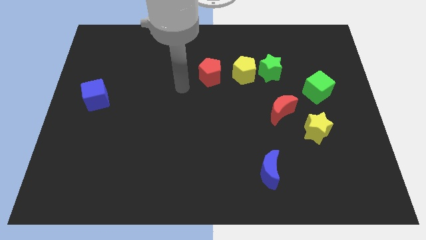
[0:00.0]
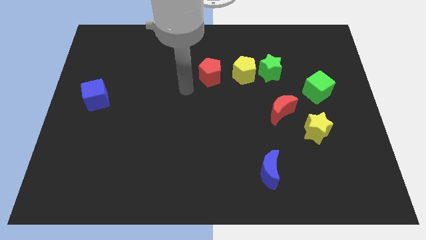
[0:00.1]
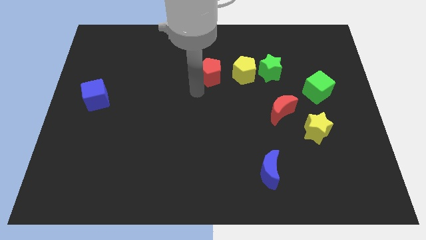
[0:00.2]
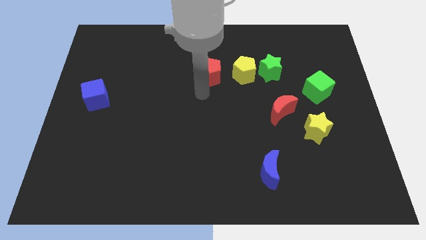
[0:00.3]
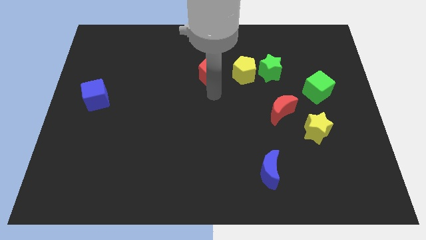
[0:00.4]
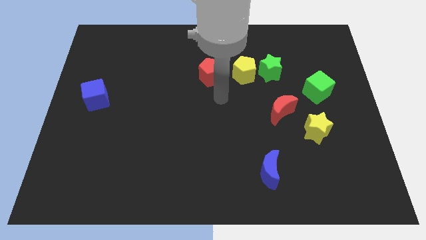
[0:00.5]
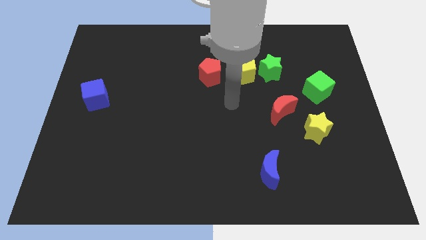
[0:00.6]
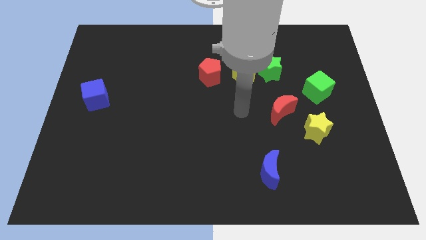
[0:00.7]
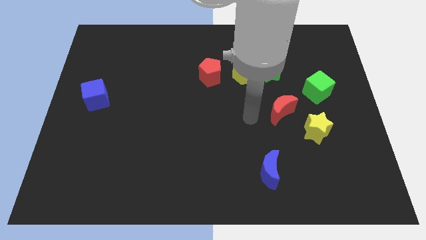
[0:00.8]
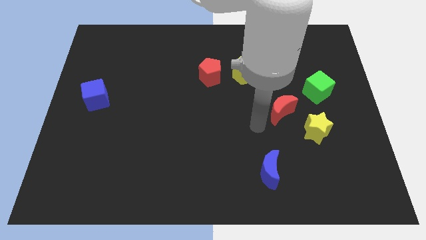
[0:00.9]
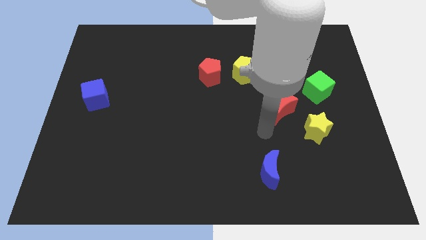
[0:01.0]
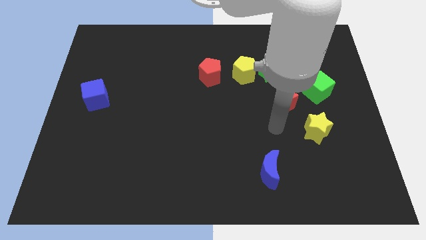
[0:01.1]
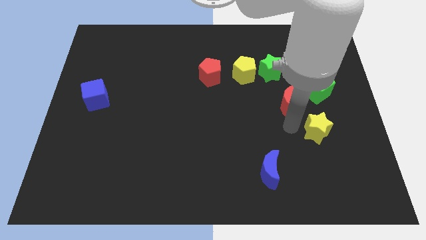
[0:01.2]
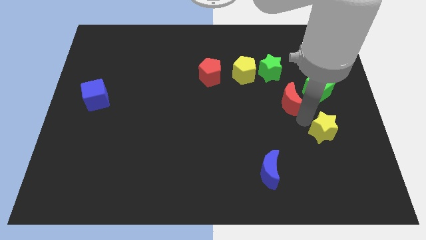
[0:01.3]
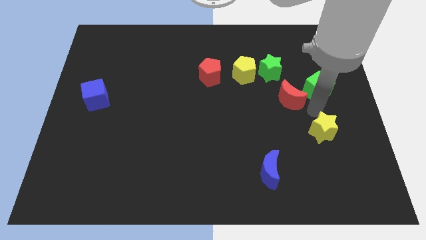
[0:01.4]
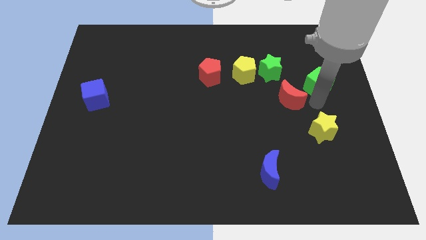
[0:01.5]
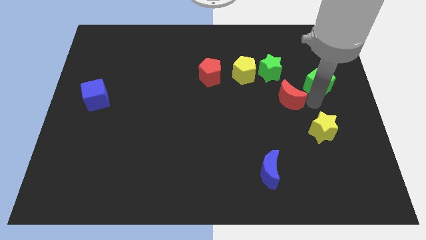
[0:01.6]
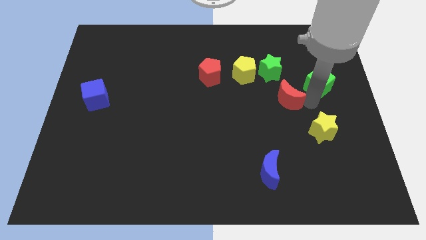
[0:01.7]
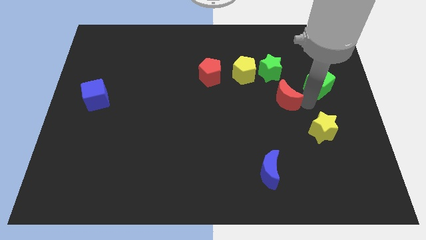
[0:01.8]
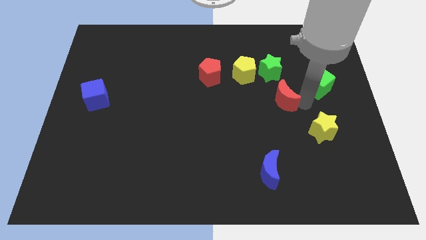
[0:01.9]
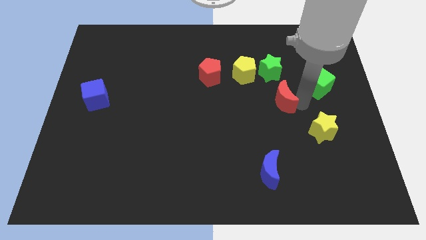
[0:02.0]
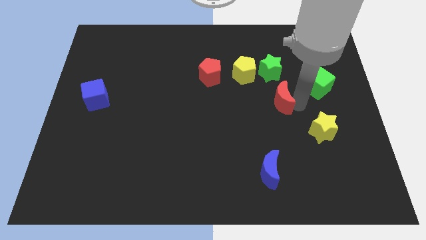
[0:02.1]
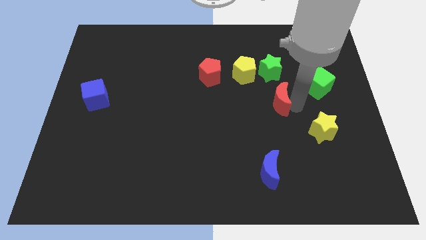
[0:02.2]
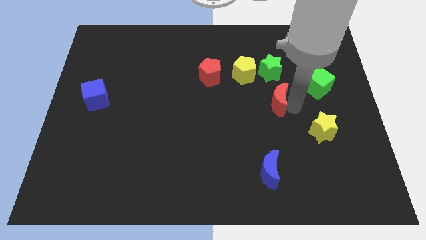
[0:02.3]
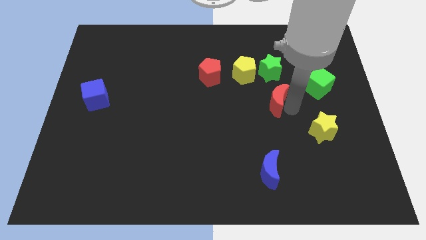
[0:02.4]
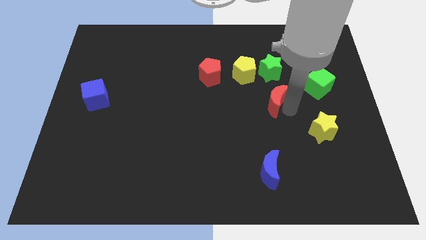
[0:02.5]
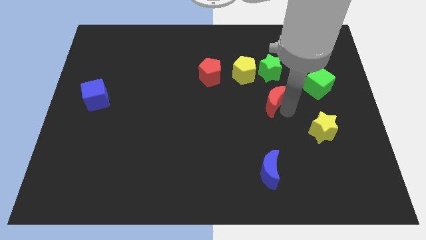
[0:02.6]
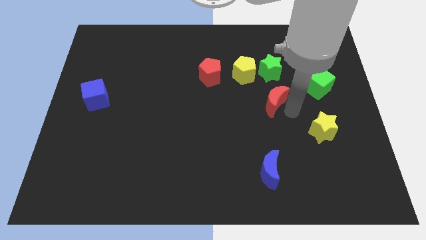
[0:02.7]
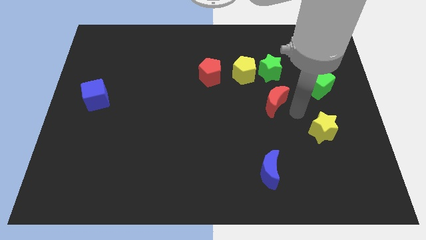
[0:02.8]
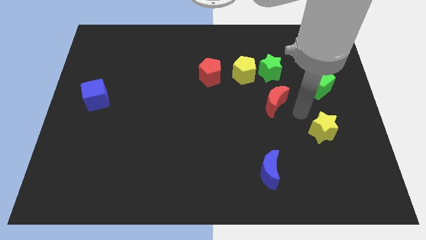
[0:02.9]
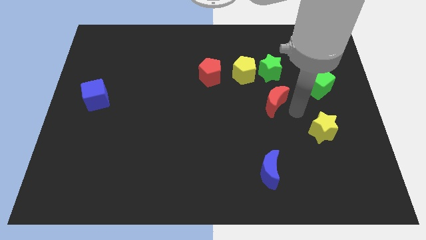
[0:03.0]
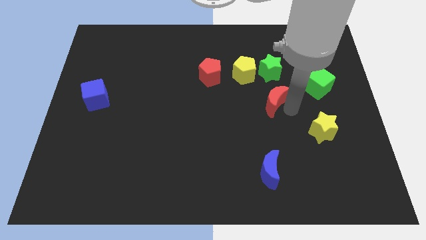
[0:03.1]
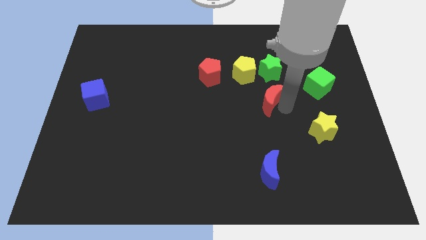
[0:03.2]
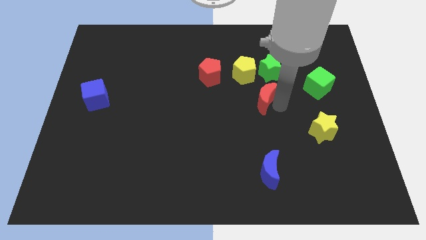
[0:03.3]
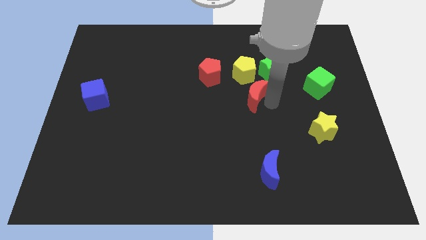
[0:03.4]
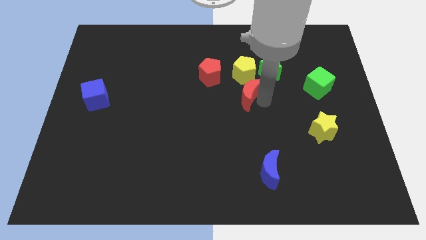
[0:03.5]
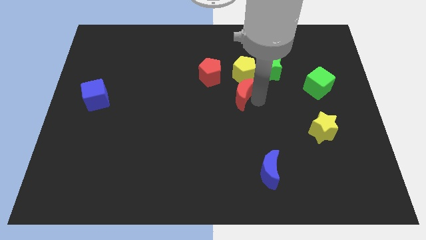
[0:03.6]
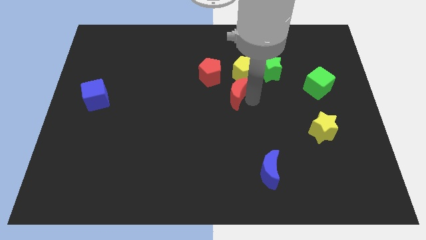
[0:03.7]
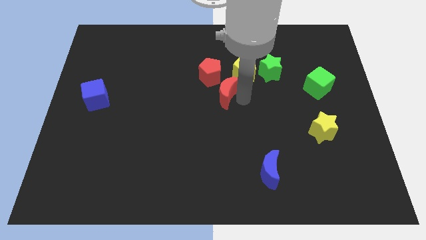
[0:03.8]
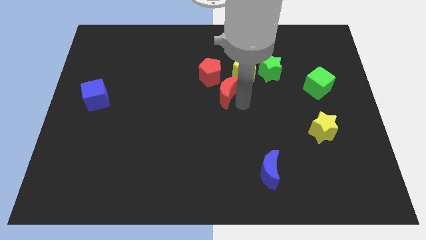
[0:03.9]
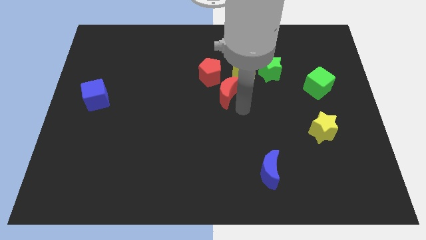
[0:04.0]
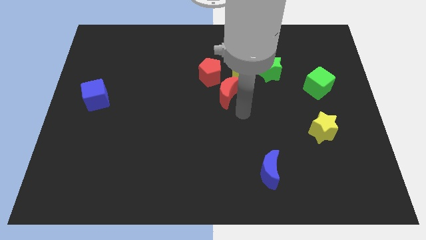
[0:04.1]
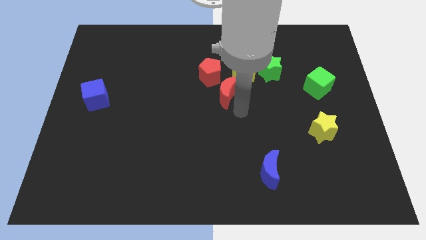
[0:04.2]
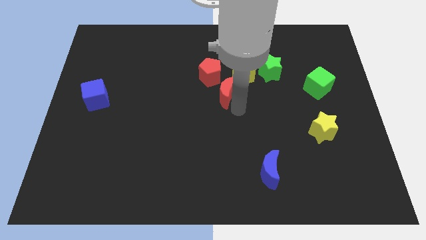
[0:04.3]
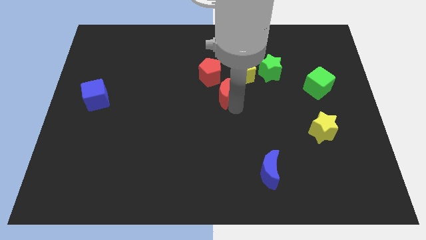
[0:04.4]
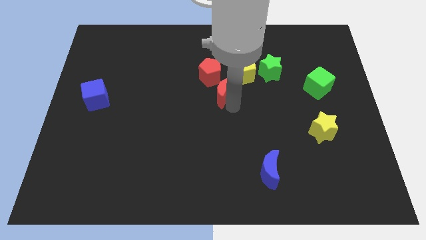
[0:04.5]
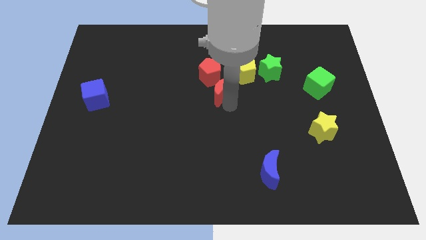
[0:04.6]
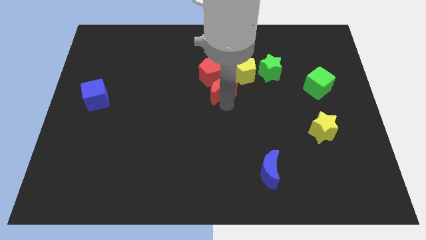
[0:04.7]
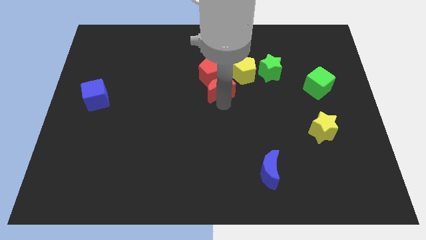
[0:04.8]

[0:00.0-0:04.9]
slide the red moon towards the red pentagon

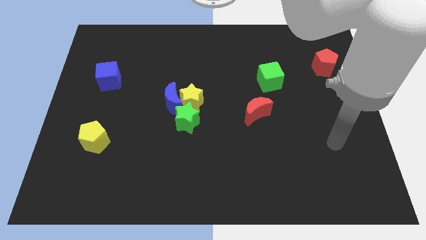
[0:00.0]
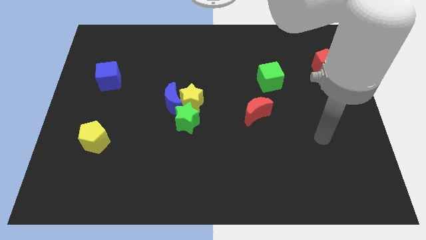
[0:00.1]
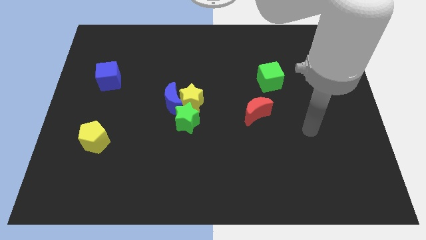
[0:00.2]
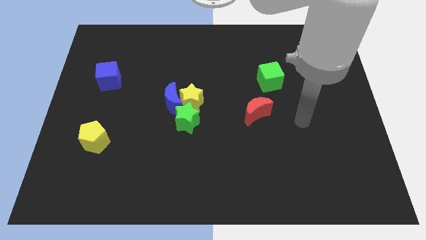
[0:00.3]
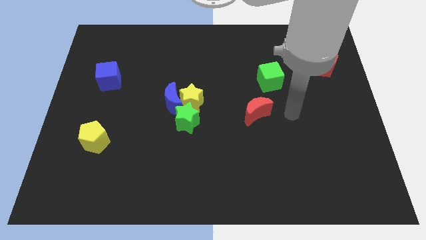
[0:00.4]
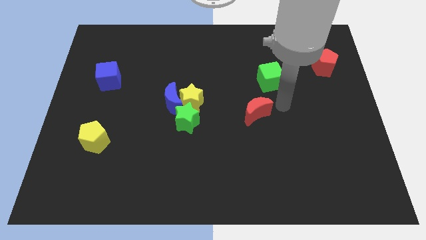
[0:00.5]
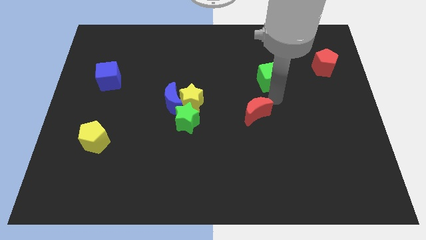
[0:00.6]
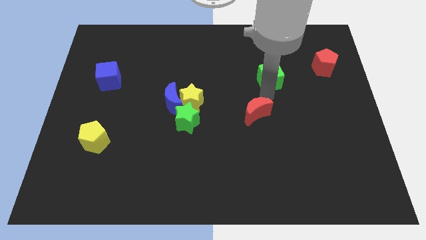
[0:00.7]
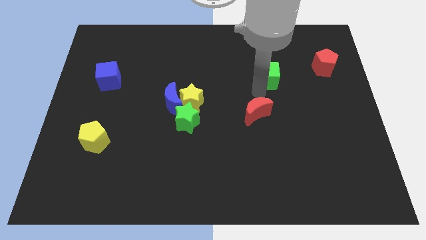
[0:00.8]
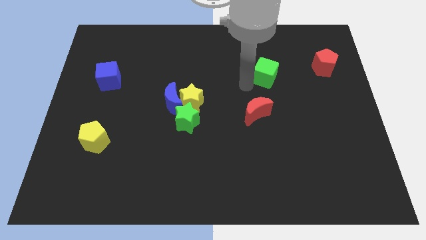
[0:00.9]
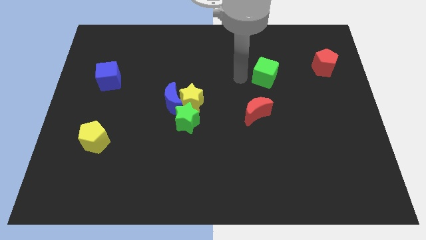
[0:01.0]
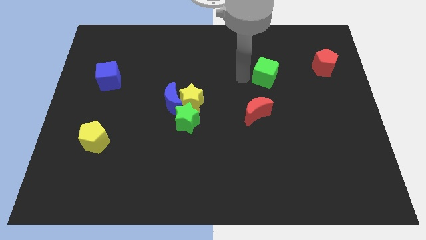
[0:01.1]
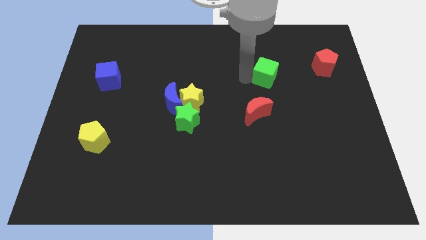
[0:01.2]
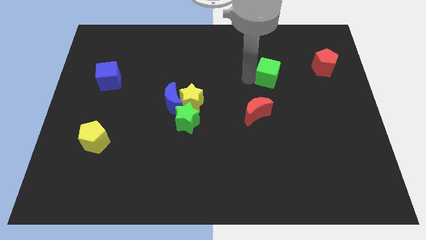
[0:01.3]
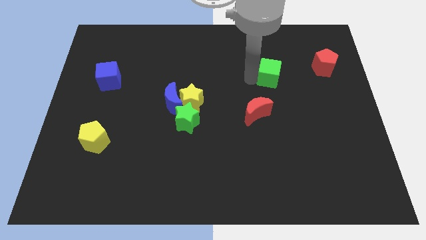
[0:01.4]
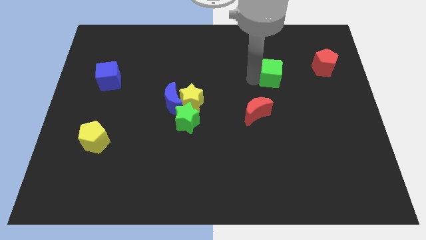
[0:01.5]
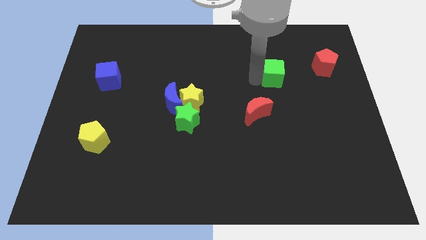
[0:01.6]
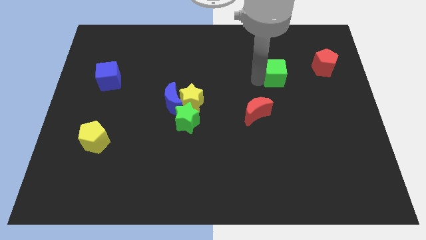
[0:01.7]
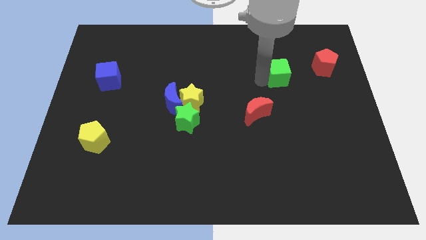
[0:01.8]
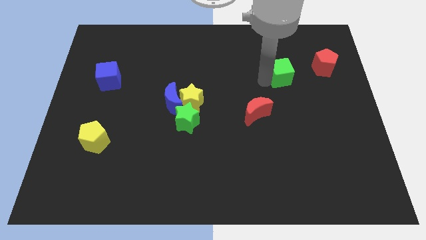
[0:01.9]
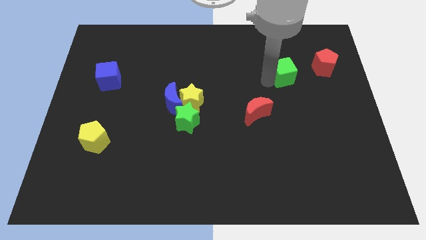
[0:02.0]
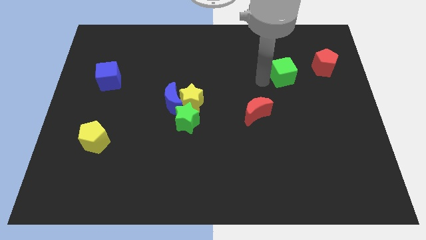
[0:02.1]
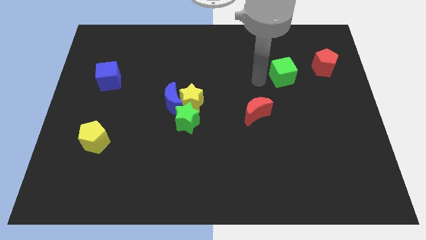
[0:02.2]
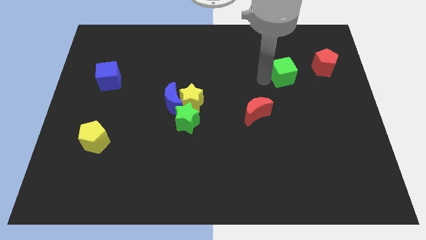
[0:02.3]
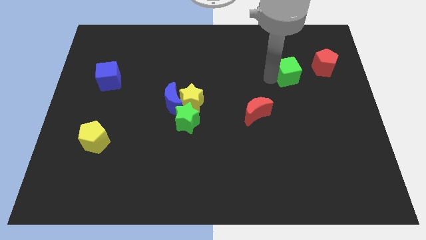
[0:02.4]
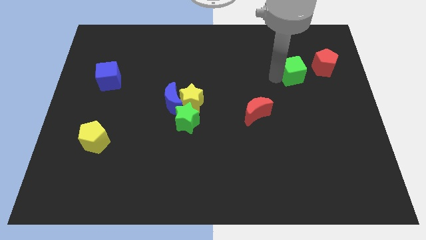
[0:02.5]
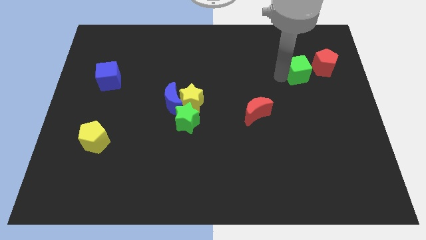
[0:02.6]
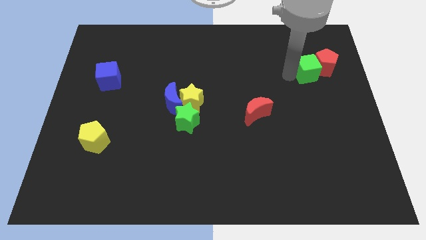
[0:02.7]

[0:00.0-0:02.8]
put the green cube towards the red pentagon
